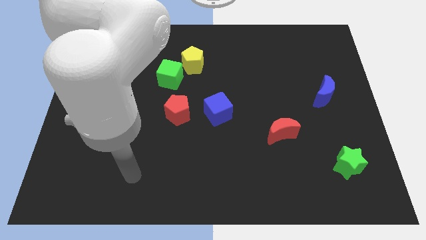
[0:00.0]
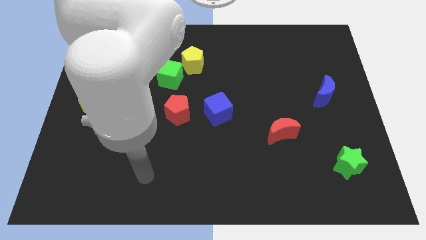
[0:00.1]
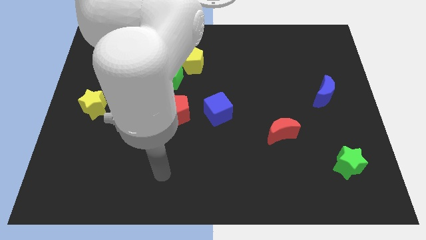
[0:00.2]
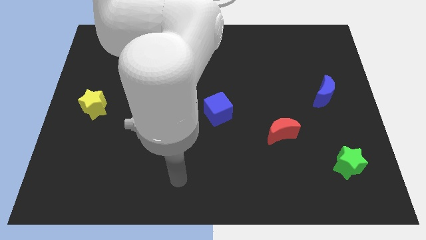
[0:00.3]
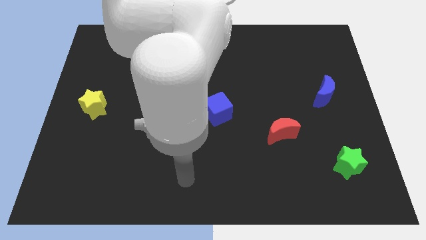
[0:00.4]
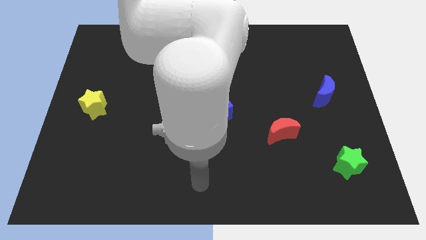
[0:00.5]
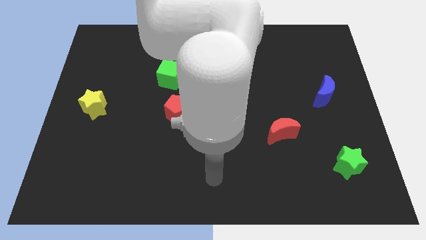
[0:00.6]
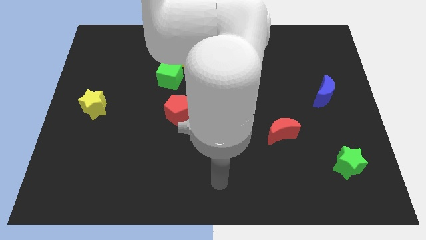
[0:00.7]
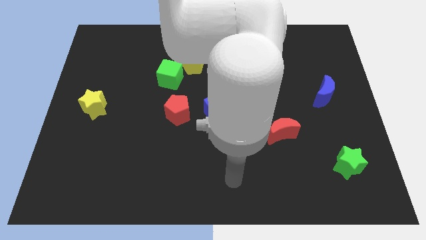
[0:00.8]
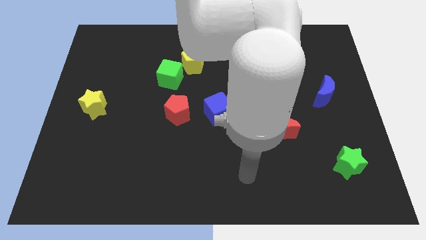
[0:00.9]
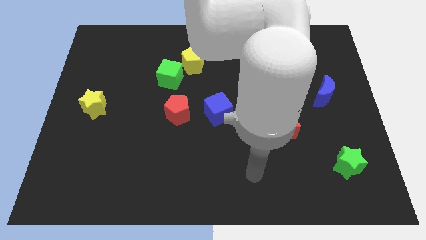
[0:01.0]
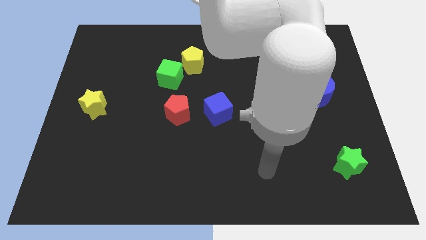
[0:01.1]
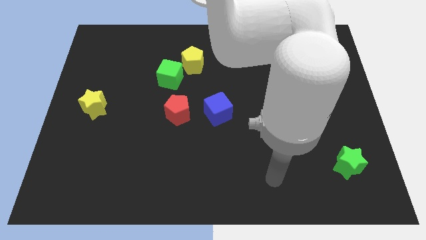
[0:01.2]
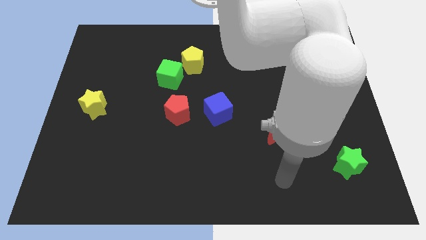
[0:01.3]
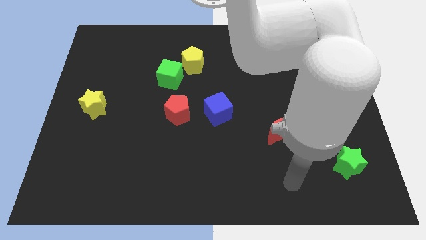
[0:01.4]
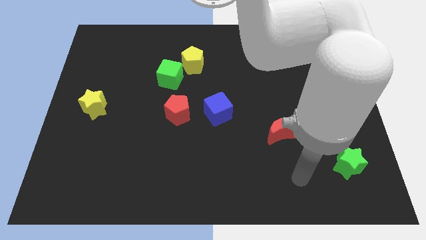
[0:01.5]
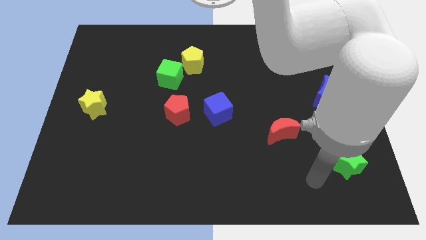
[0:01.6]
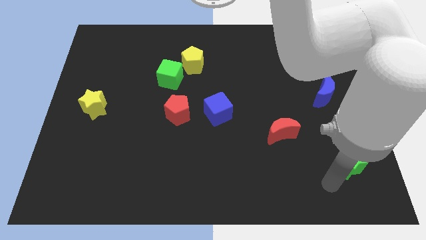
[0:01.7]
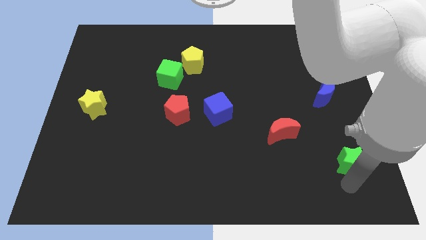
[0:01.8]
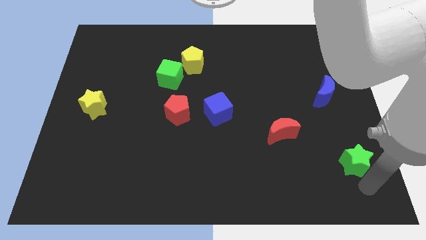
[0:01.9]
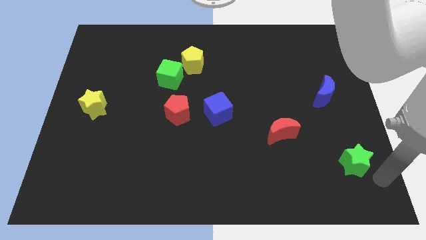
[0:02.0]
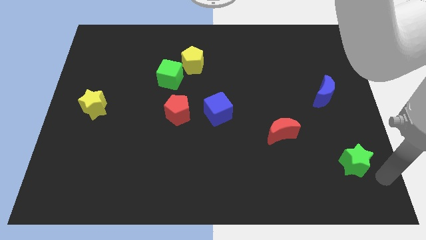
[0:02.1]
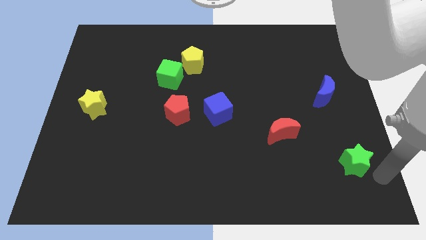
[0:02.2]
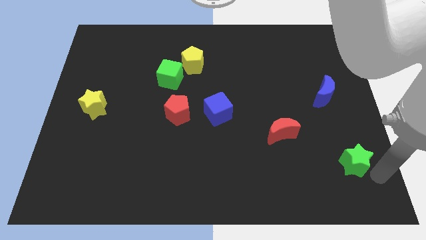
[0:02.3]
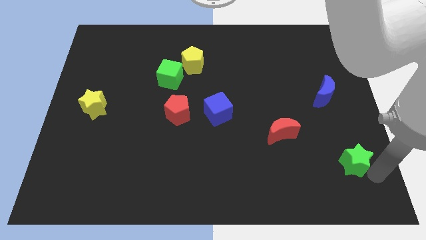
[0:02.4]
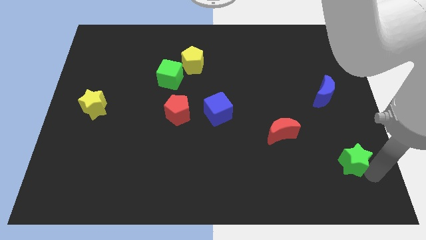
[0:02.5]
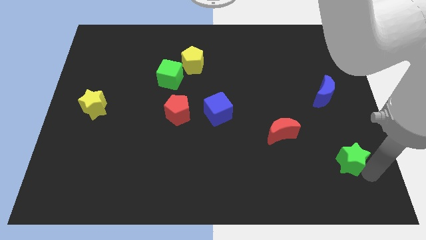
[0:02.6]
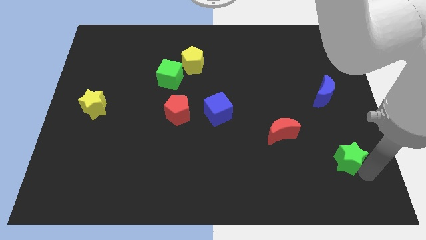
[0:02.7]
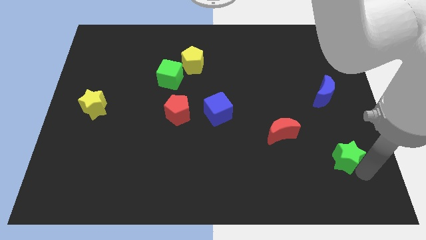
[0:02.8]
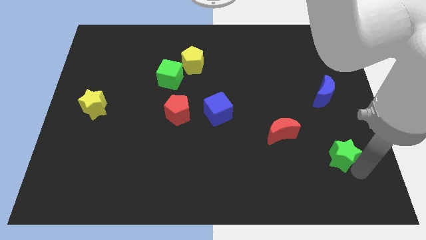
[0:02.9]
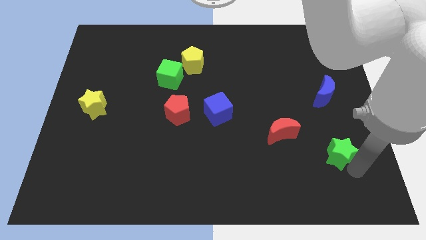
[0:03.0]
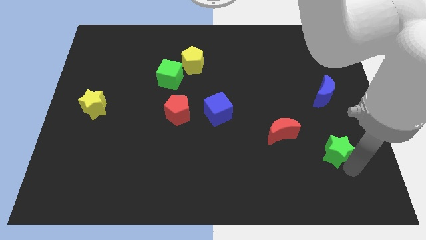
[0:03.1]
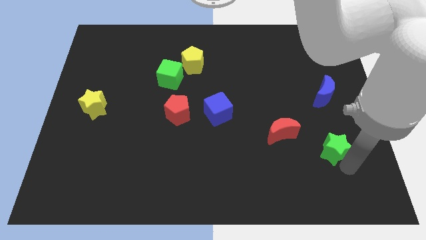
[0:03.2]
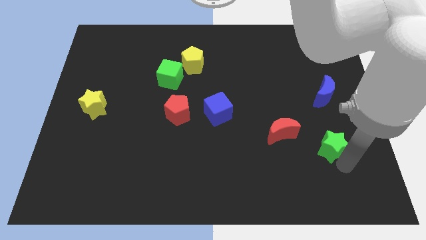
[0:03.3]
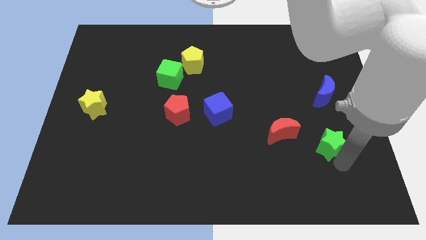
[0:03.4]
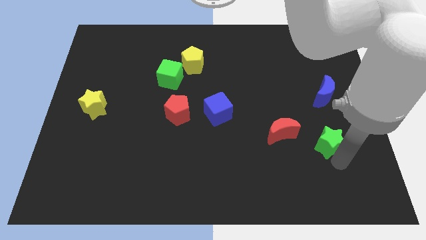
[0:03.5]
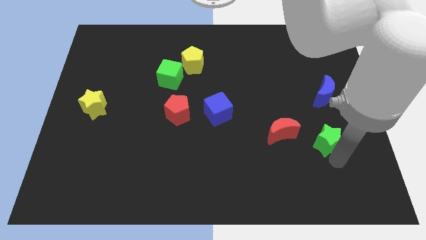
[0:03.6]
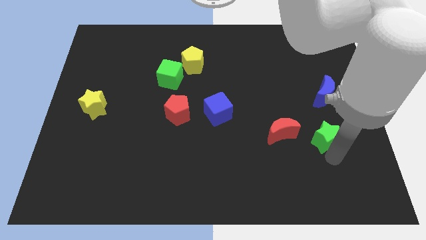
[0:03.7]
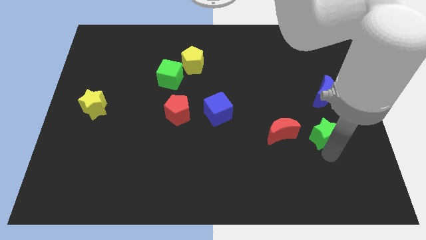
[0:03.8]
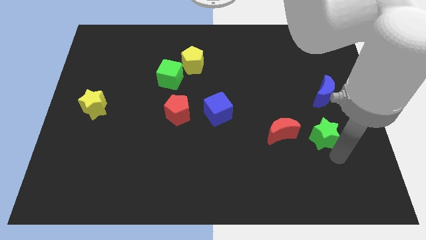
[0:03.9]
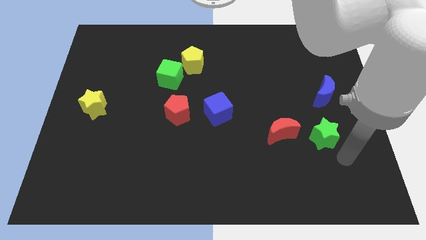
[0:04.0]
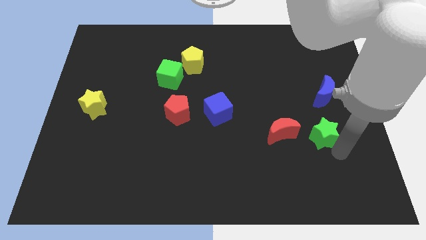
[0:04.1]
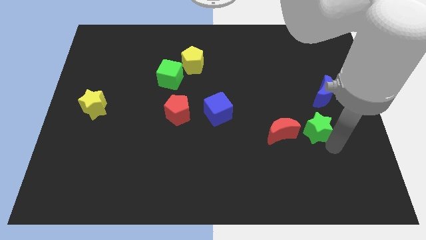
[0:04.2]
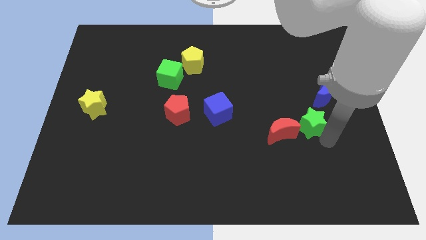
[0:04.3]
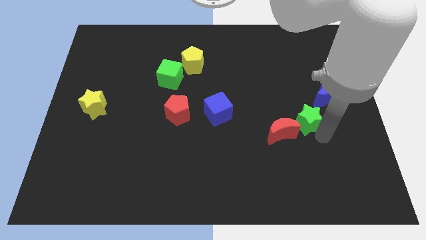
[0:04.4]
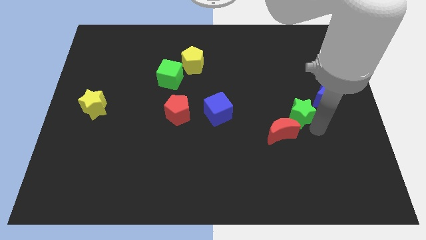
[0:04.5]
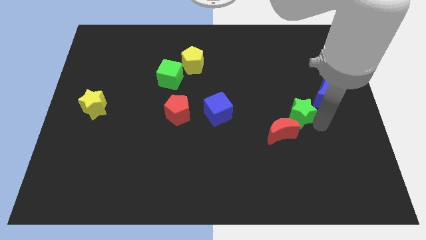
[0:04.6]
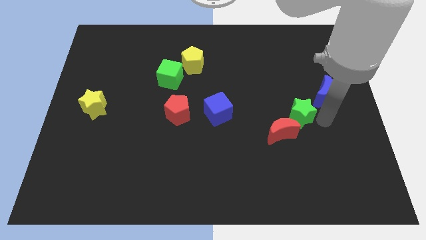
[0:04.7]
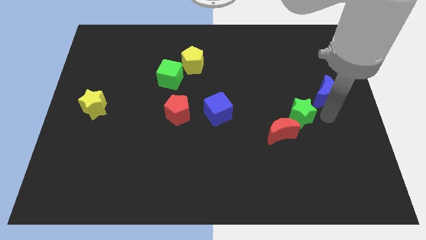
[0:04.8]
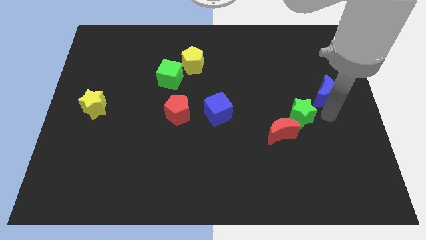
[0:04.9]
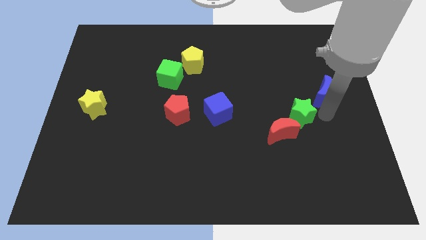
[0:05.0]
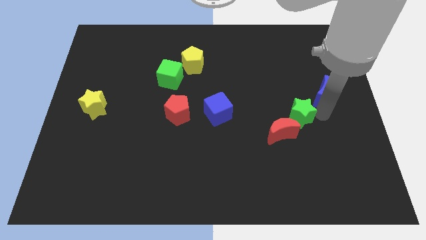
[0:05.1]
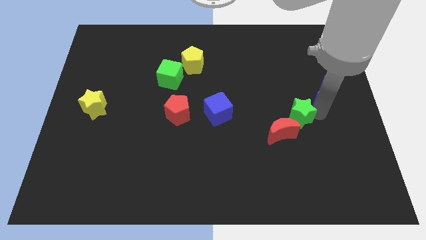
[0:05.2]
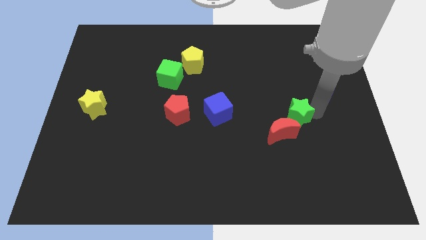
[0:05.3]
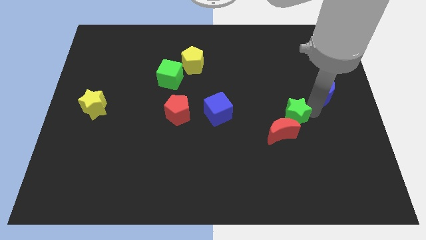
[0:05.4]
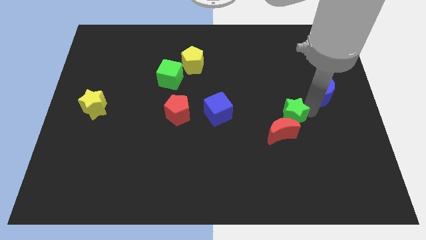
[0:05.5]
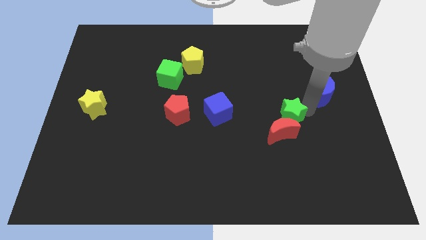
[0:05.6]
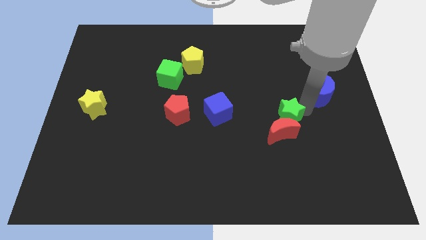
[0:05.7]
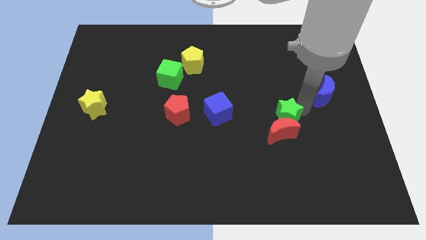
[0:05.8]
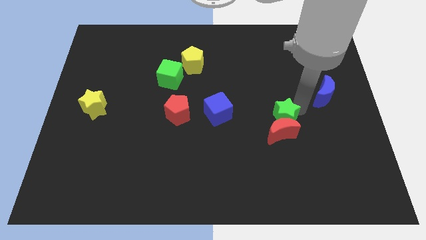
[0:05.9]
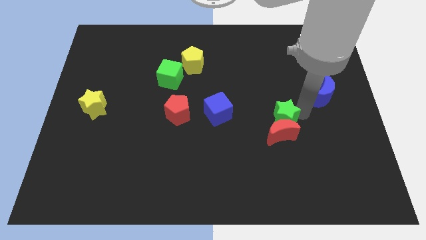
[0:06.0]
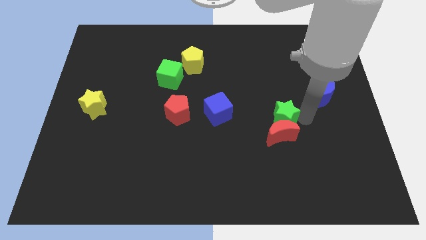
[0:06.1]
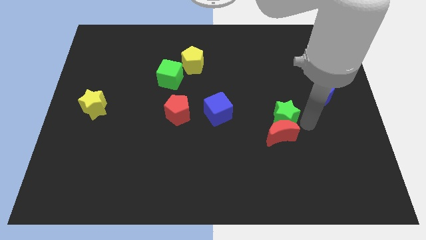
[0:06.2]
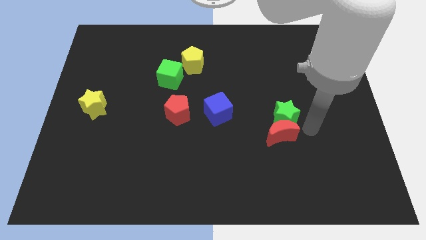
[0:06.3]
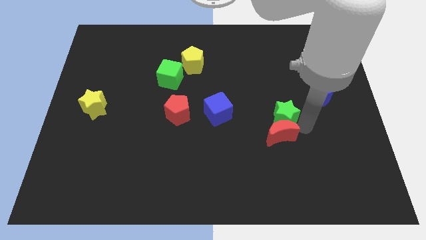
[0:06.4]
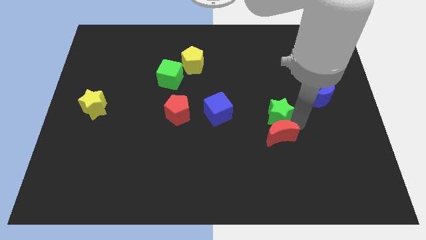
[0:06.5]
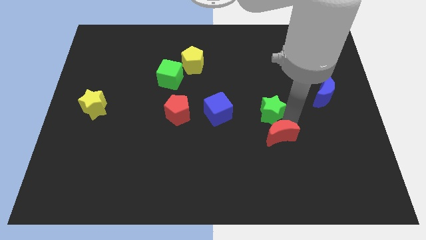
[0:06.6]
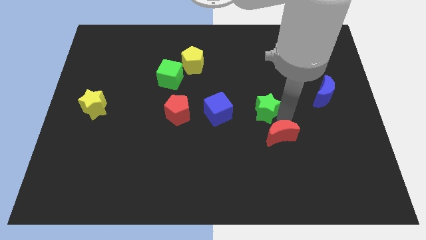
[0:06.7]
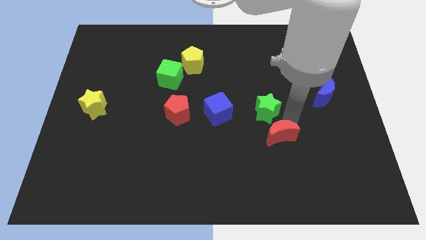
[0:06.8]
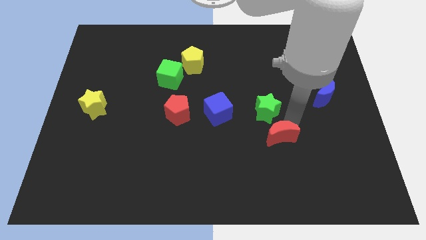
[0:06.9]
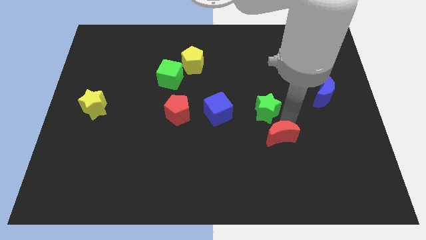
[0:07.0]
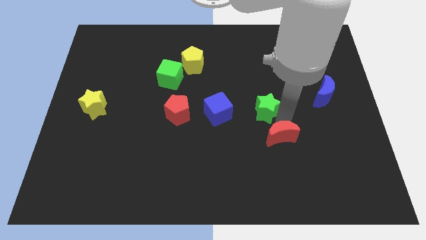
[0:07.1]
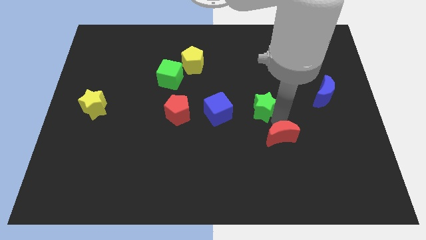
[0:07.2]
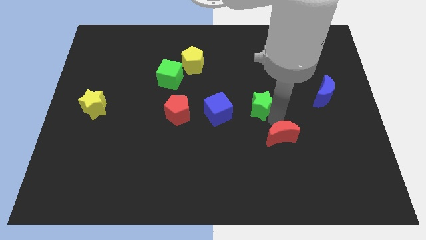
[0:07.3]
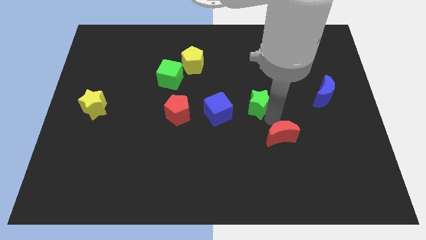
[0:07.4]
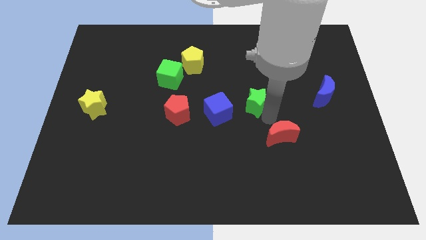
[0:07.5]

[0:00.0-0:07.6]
move the green star to the top right side of the blue cube
